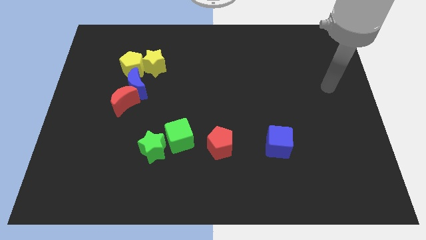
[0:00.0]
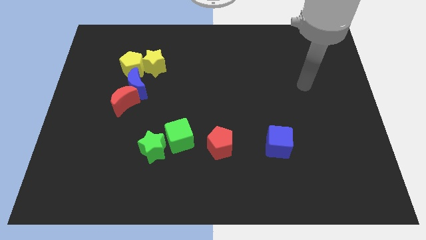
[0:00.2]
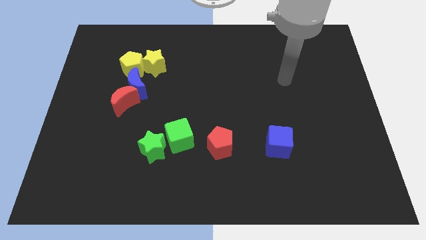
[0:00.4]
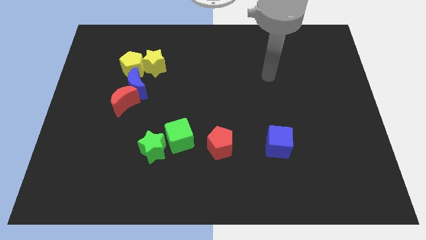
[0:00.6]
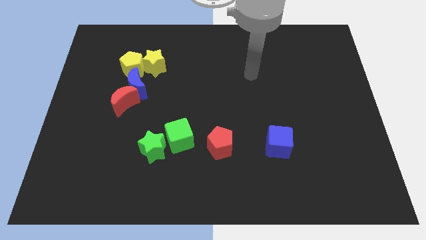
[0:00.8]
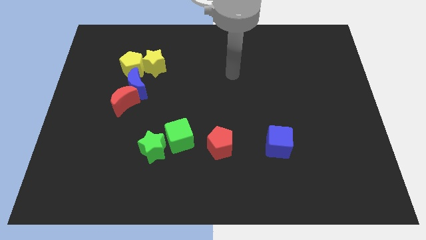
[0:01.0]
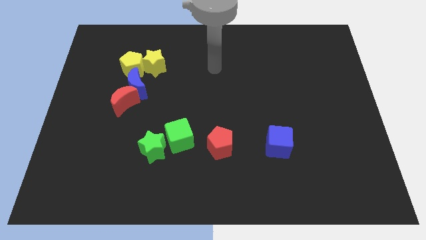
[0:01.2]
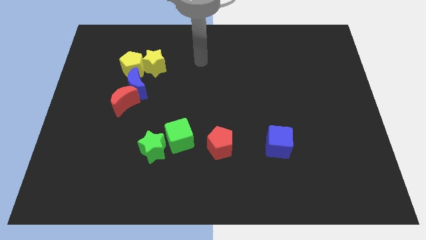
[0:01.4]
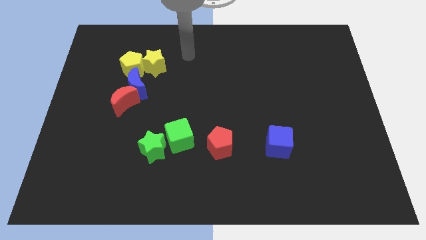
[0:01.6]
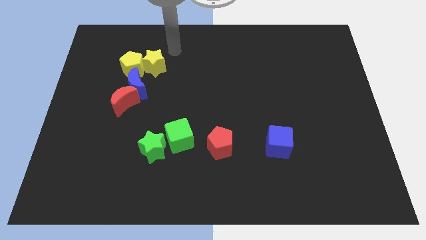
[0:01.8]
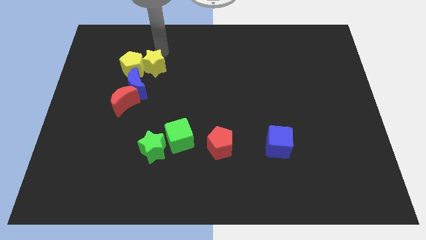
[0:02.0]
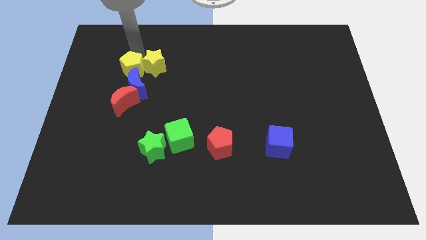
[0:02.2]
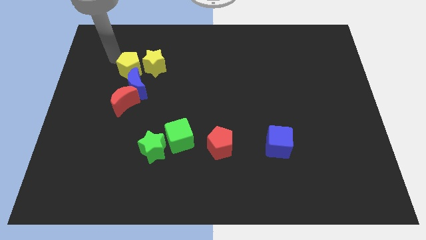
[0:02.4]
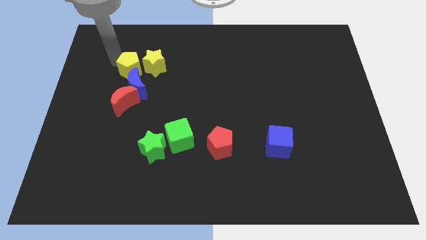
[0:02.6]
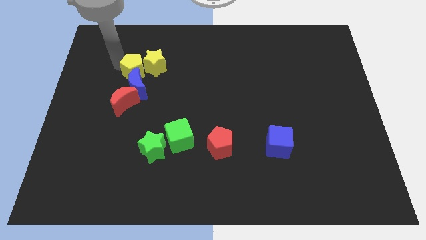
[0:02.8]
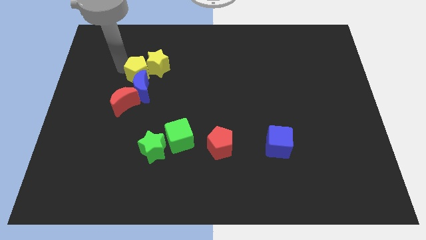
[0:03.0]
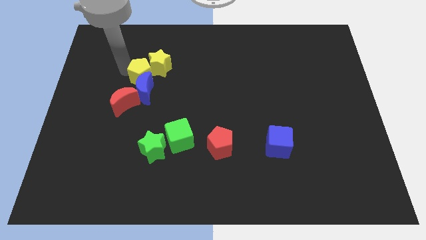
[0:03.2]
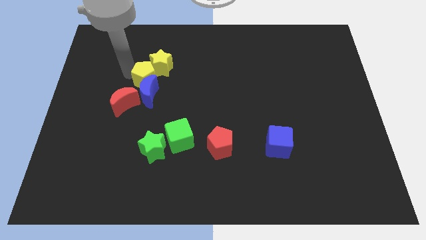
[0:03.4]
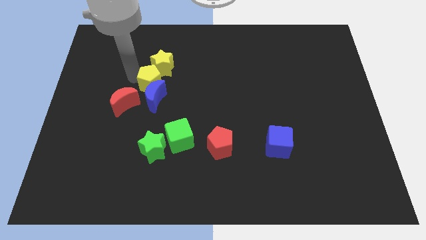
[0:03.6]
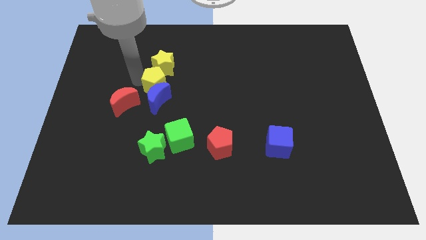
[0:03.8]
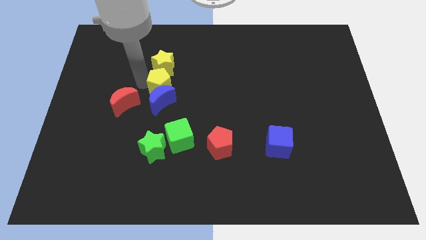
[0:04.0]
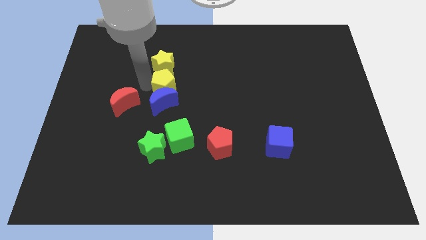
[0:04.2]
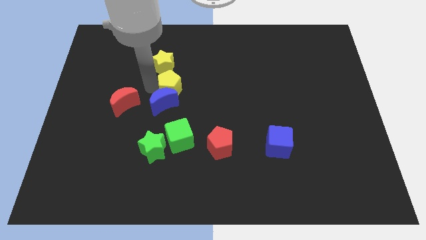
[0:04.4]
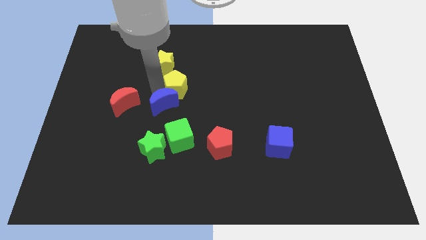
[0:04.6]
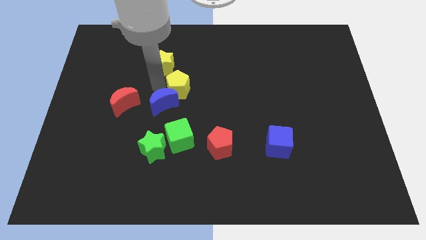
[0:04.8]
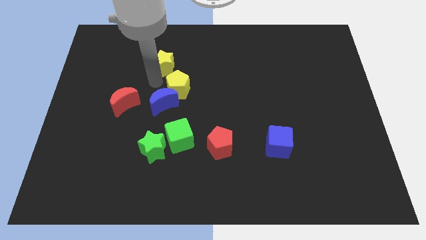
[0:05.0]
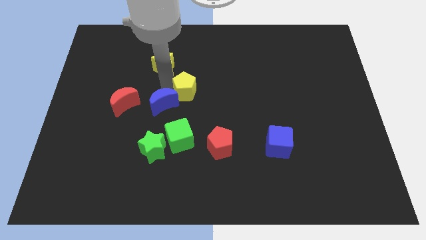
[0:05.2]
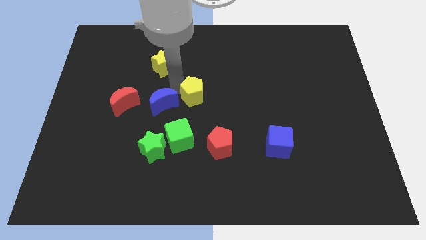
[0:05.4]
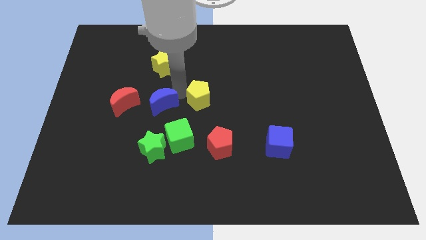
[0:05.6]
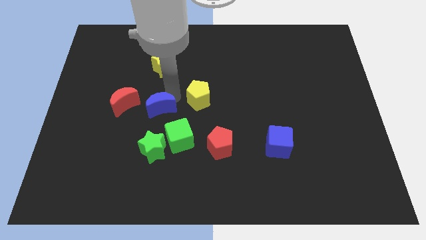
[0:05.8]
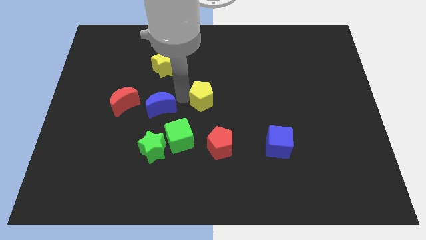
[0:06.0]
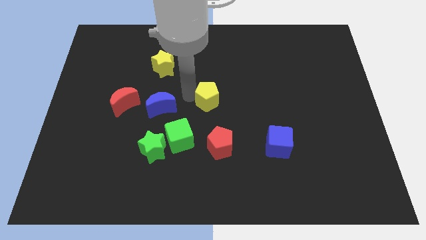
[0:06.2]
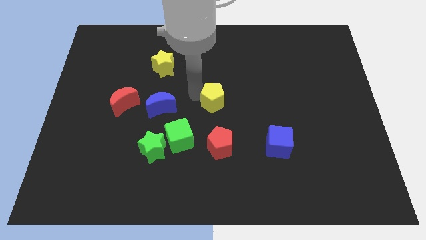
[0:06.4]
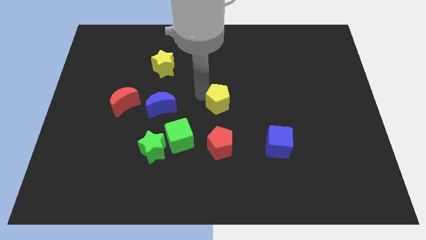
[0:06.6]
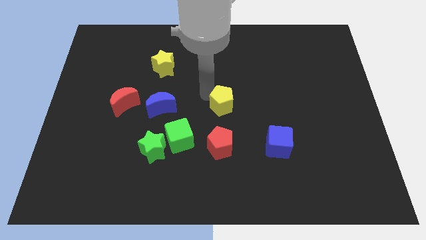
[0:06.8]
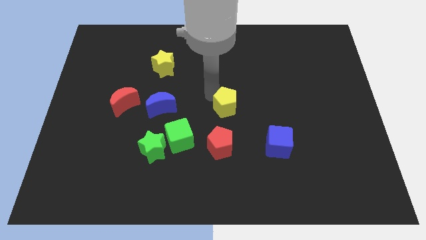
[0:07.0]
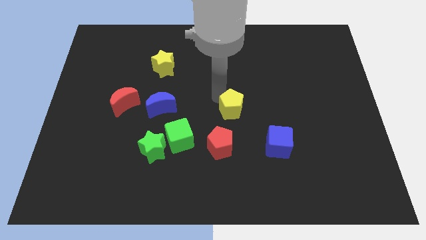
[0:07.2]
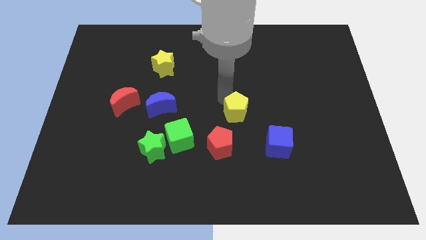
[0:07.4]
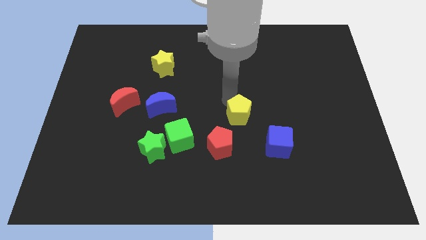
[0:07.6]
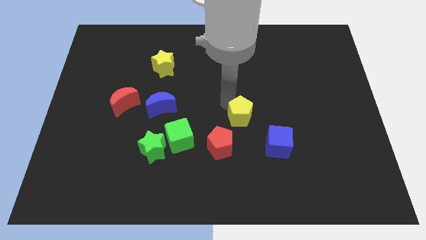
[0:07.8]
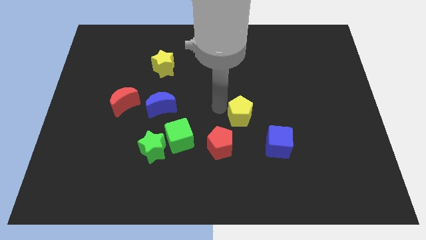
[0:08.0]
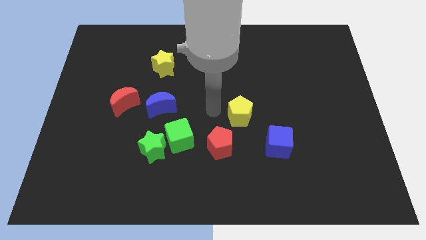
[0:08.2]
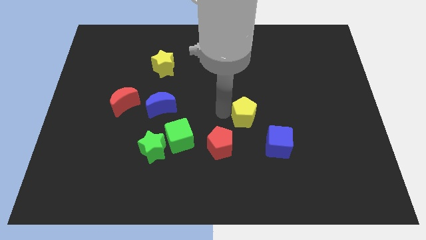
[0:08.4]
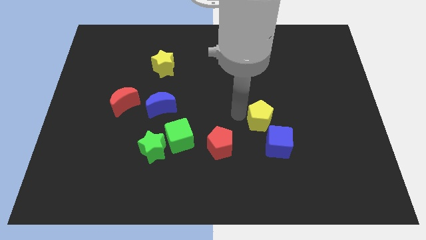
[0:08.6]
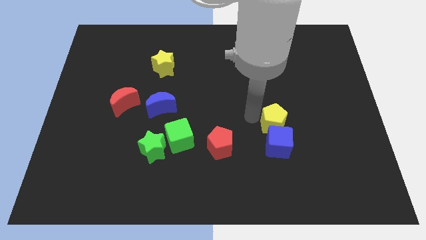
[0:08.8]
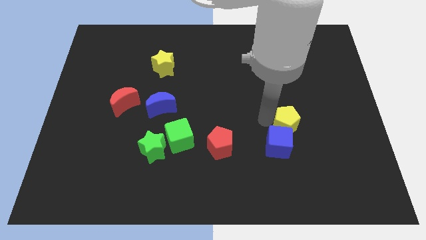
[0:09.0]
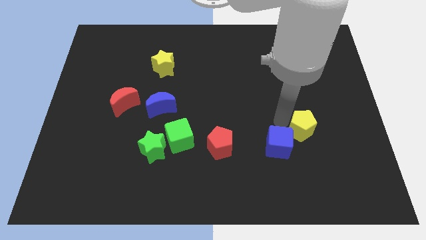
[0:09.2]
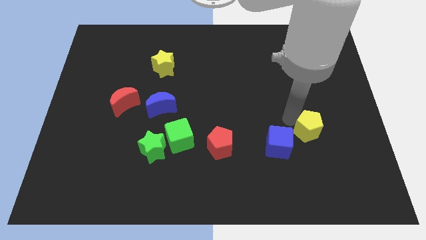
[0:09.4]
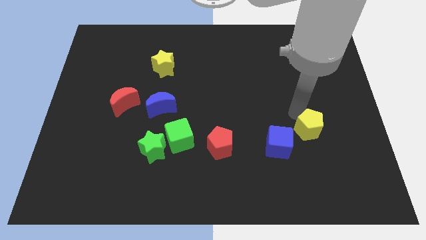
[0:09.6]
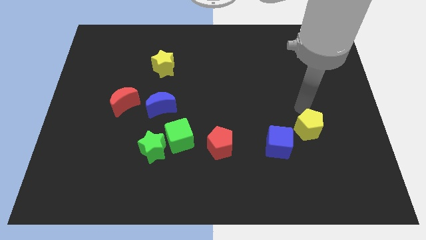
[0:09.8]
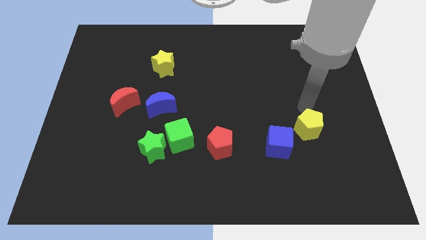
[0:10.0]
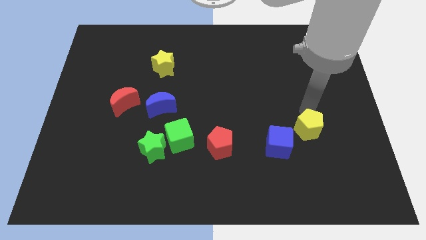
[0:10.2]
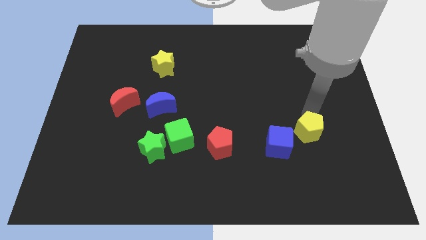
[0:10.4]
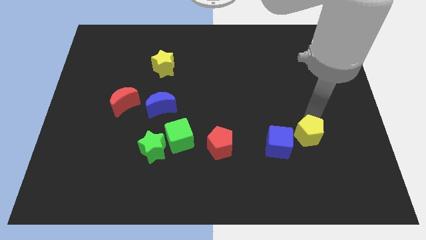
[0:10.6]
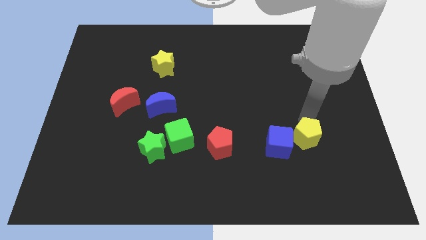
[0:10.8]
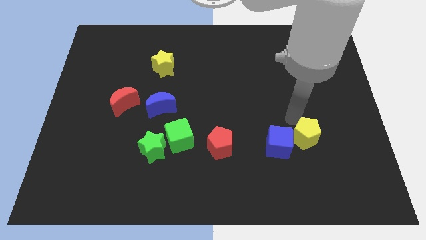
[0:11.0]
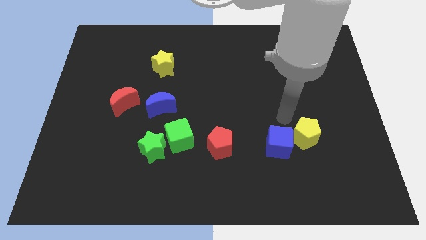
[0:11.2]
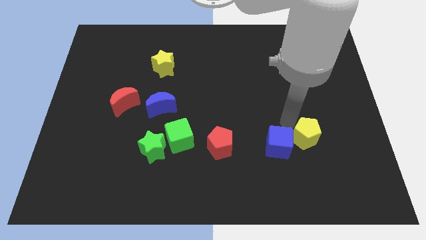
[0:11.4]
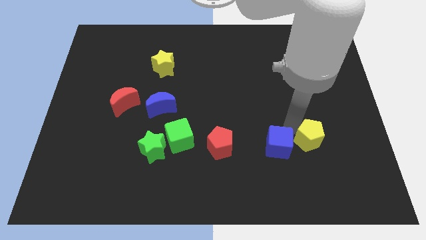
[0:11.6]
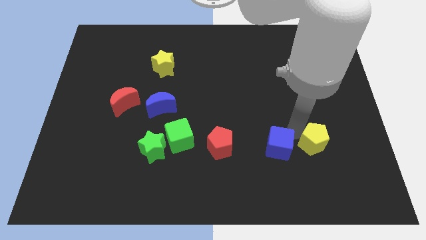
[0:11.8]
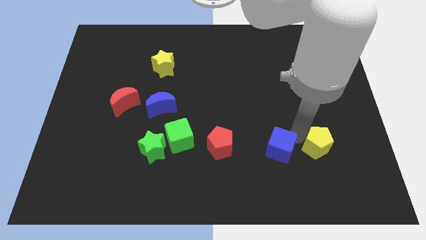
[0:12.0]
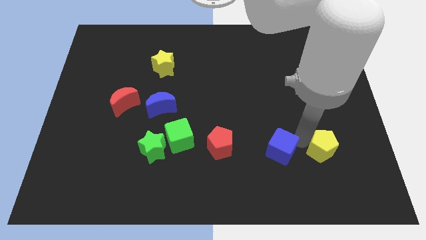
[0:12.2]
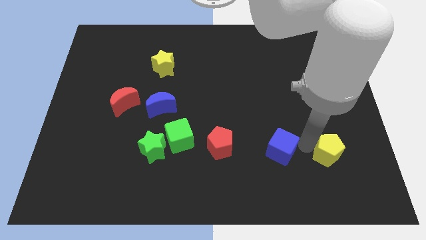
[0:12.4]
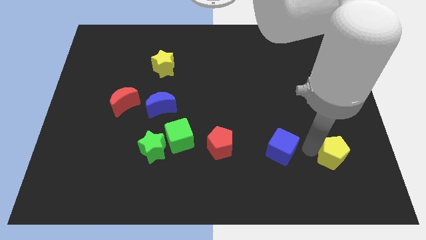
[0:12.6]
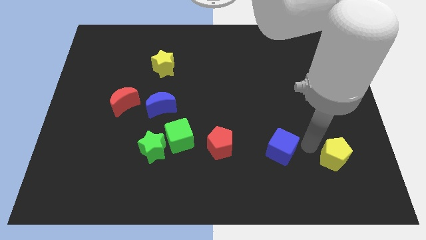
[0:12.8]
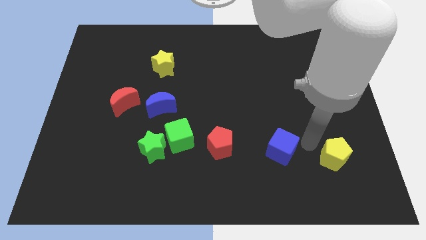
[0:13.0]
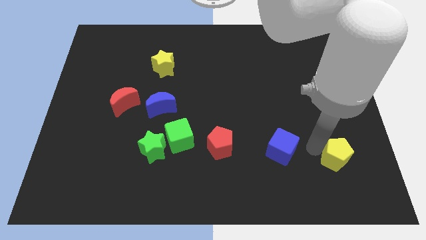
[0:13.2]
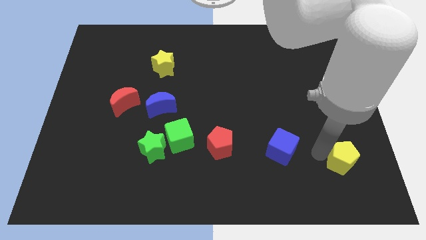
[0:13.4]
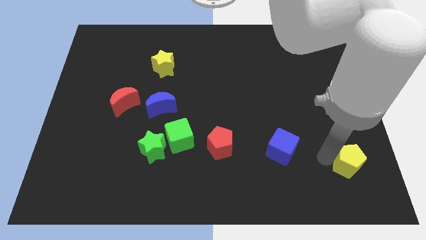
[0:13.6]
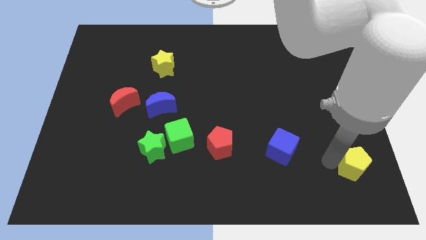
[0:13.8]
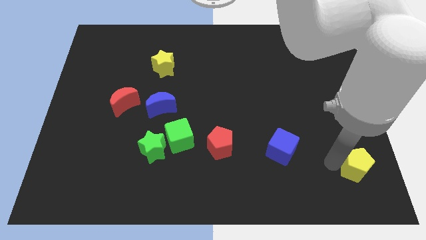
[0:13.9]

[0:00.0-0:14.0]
push the yellow pentagon to the bottom right of the board

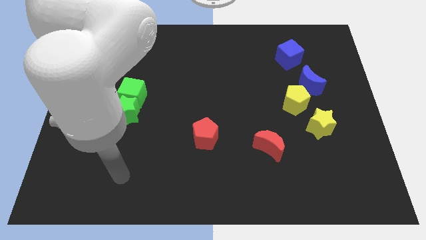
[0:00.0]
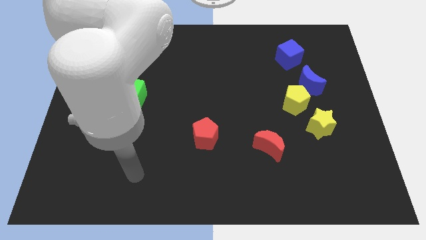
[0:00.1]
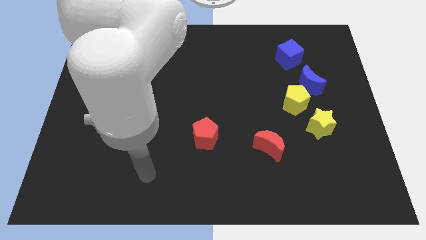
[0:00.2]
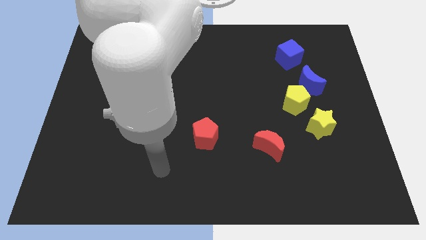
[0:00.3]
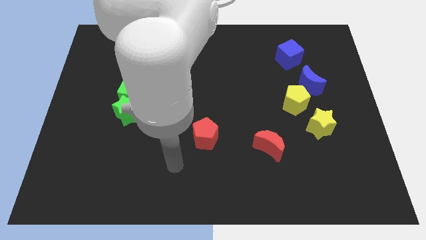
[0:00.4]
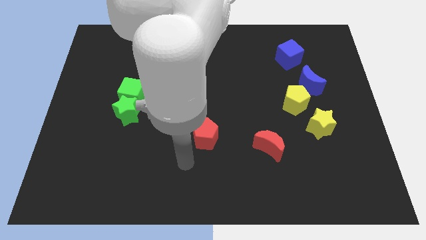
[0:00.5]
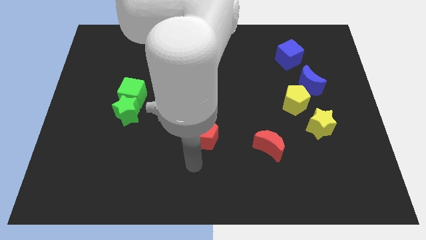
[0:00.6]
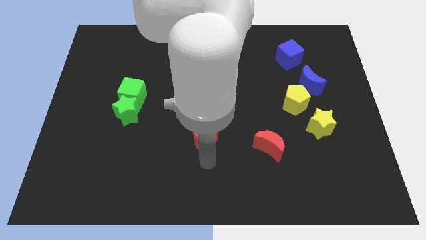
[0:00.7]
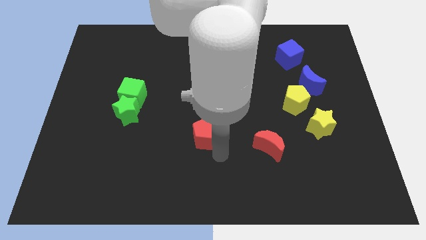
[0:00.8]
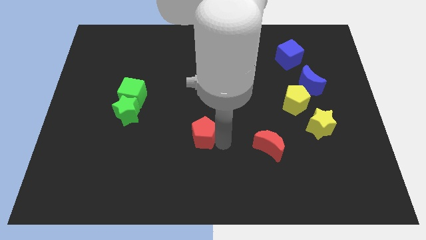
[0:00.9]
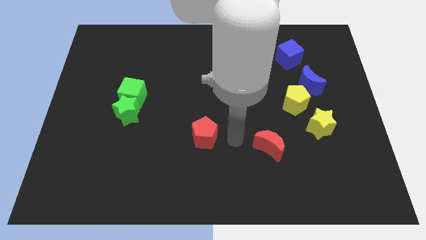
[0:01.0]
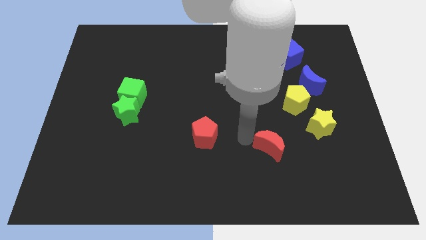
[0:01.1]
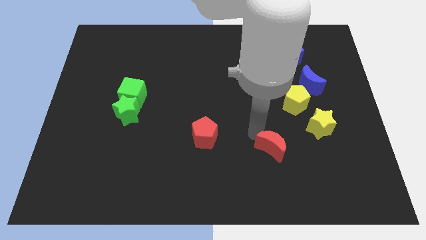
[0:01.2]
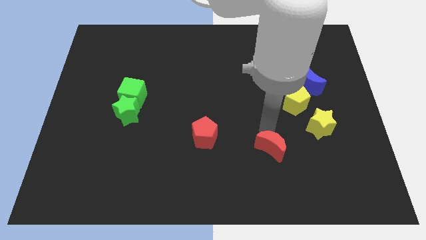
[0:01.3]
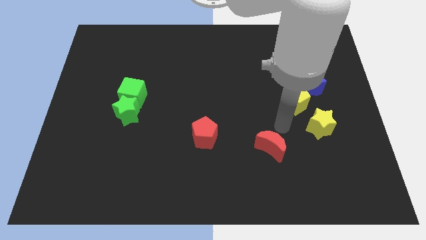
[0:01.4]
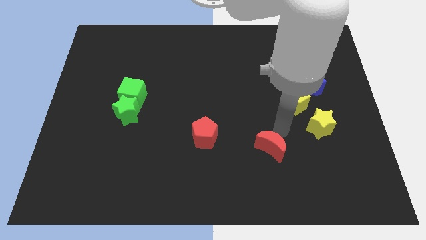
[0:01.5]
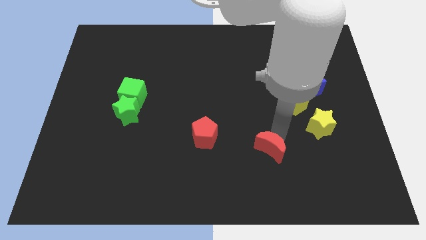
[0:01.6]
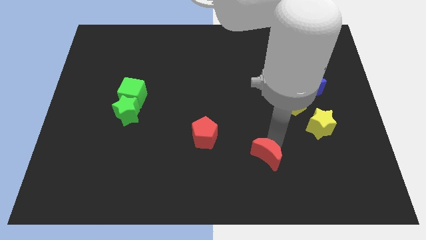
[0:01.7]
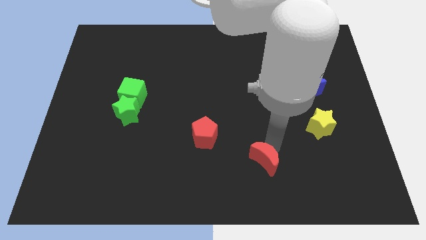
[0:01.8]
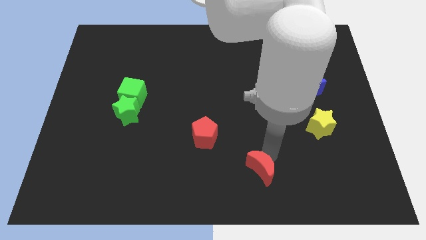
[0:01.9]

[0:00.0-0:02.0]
slide the red moon to the bottom
